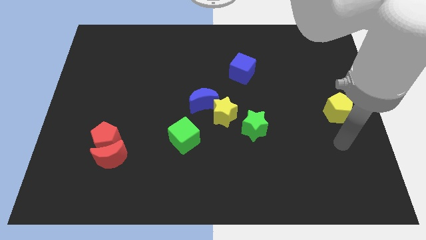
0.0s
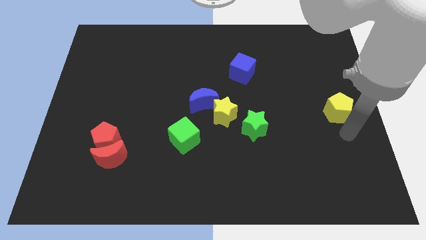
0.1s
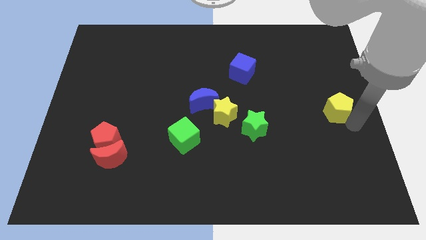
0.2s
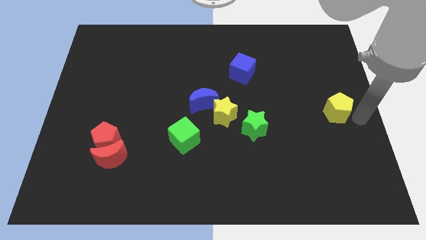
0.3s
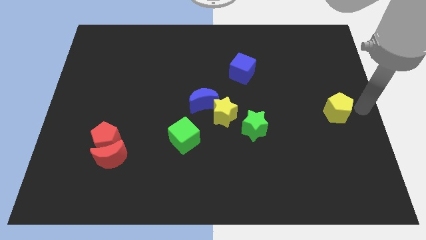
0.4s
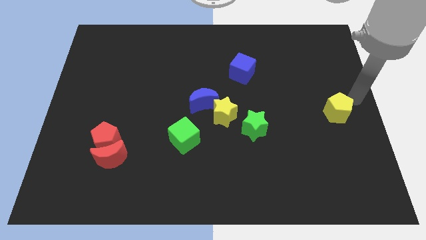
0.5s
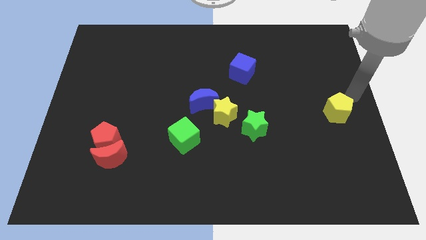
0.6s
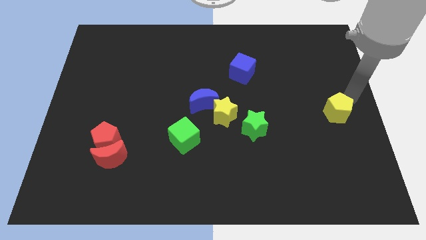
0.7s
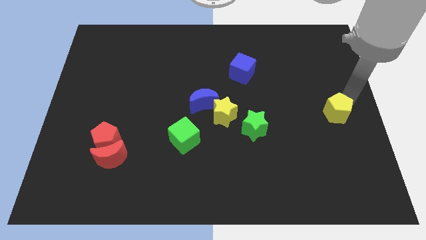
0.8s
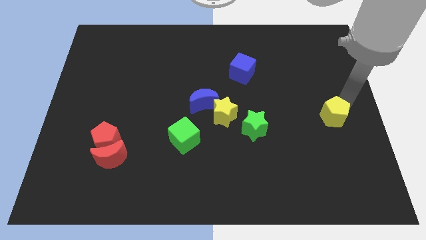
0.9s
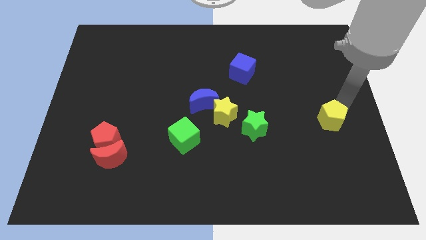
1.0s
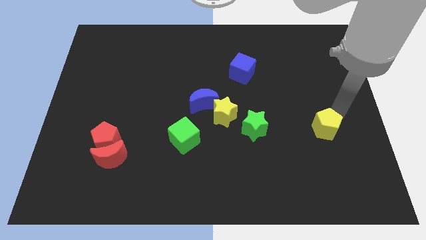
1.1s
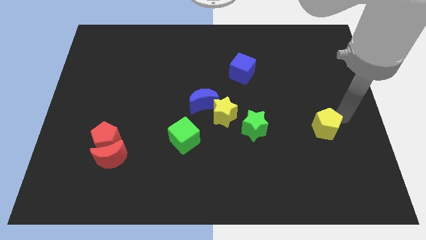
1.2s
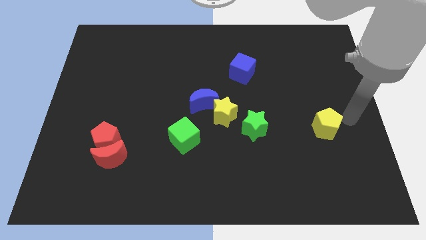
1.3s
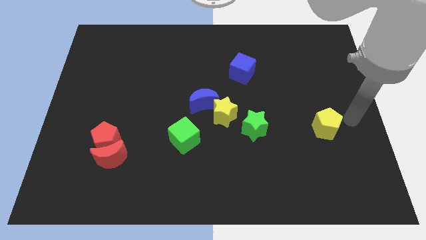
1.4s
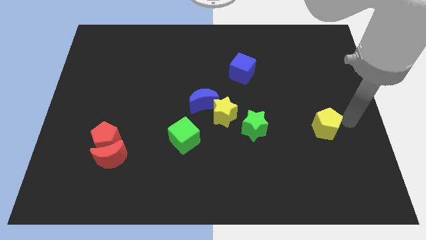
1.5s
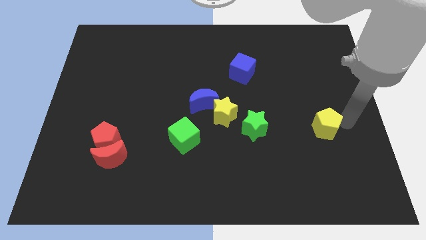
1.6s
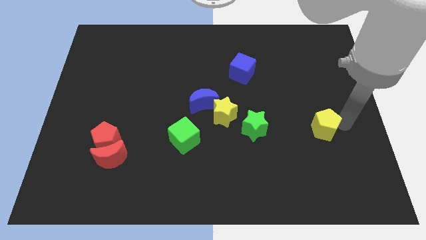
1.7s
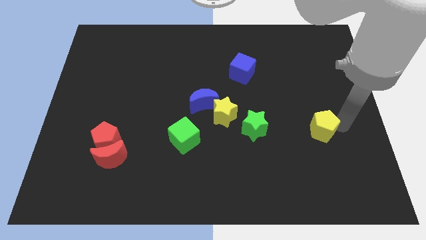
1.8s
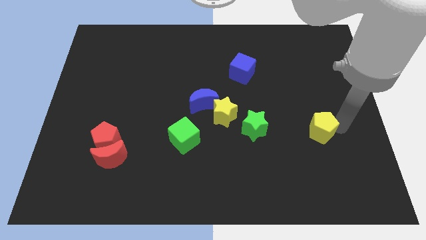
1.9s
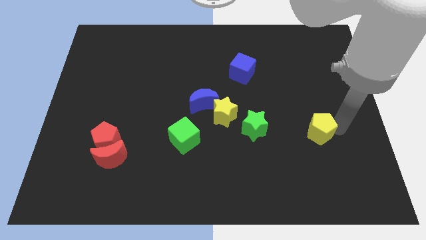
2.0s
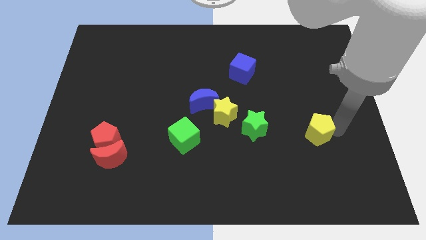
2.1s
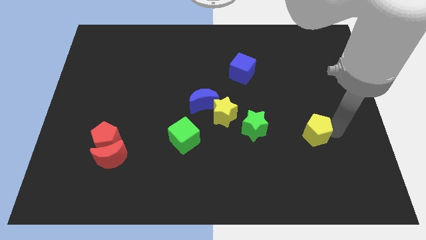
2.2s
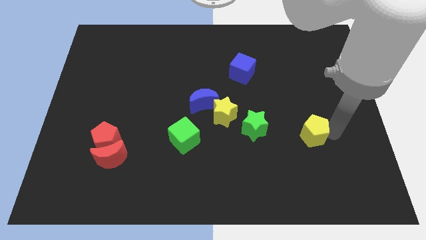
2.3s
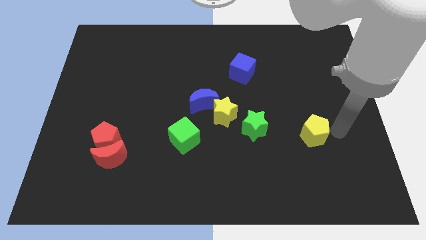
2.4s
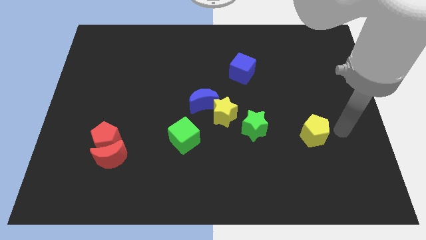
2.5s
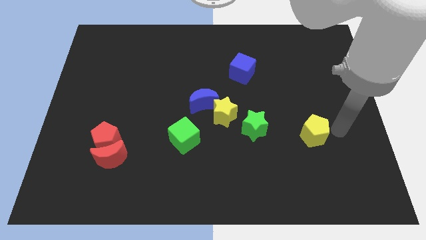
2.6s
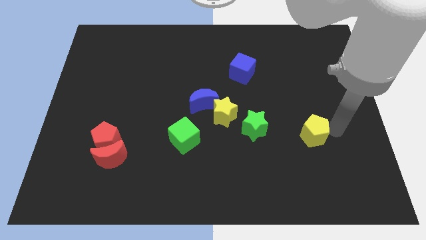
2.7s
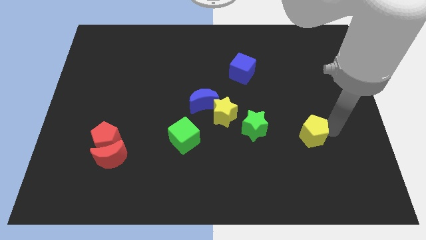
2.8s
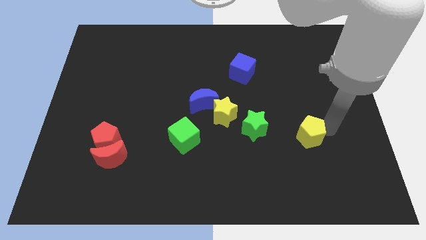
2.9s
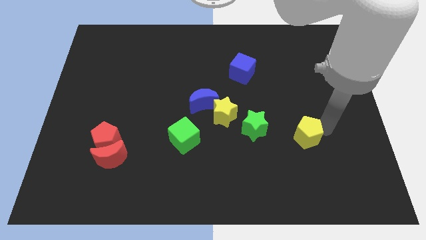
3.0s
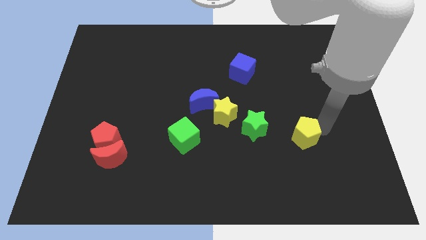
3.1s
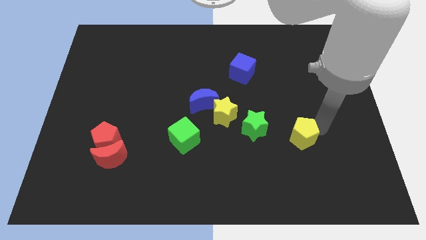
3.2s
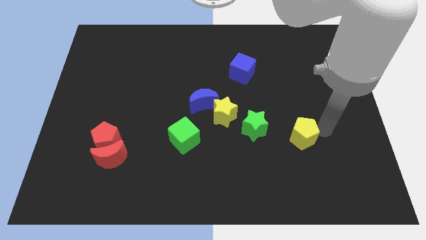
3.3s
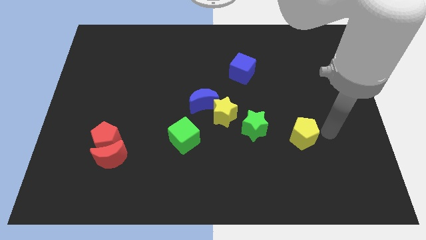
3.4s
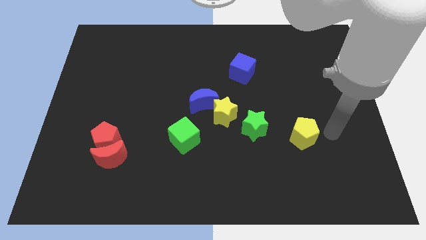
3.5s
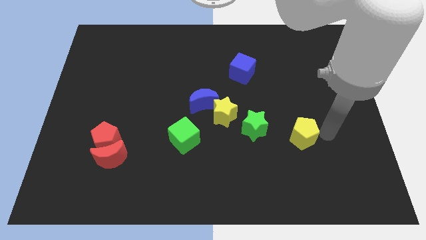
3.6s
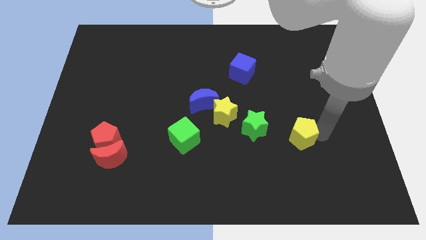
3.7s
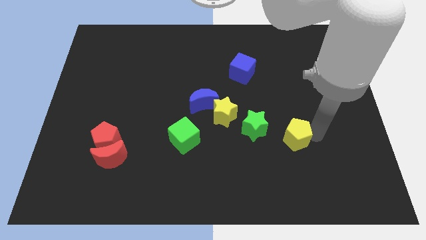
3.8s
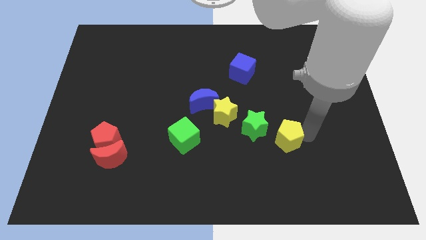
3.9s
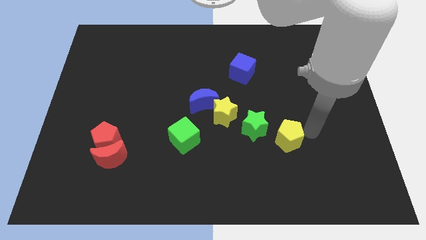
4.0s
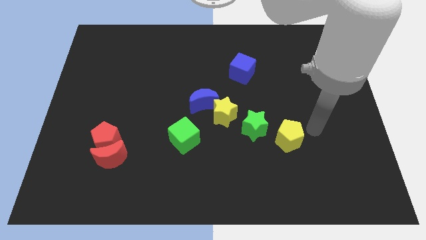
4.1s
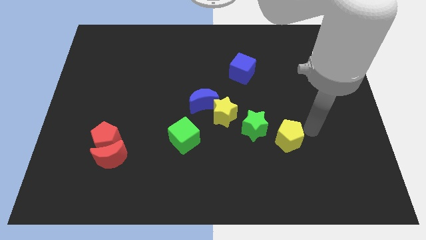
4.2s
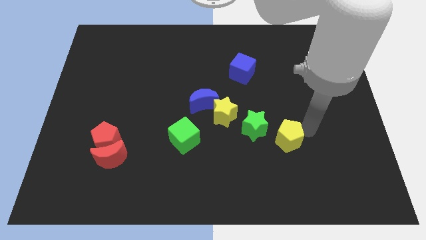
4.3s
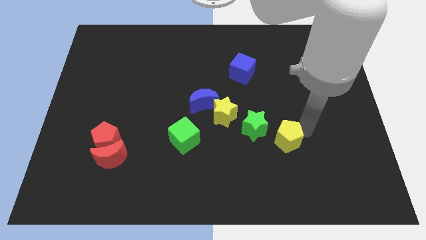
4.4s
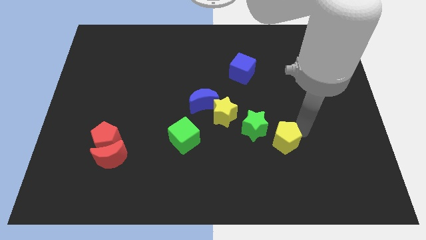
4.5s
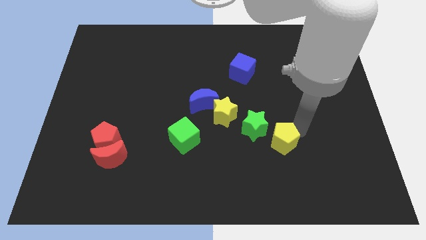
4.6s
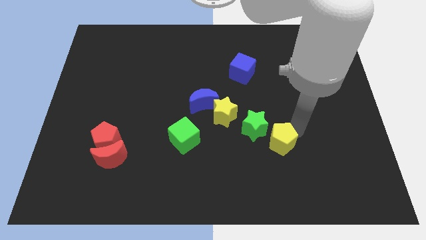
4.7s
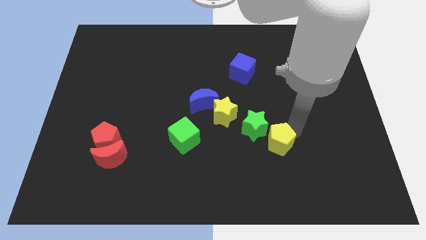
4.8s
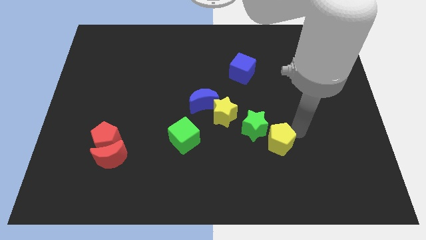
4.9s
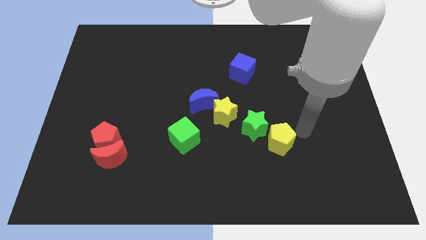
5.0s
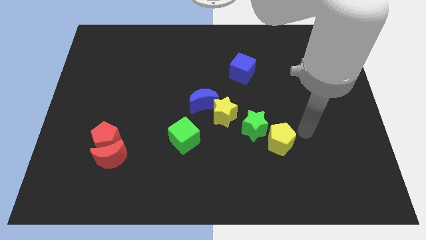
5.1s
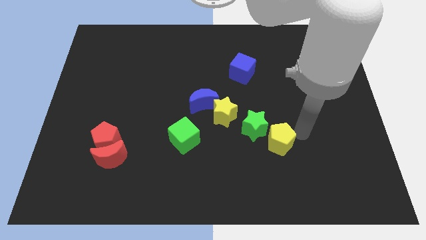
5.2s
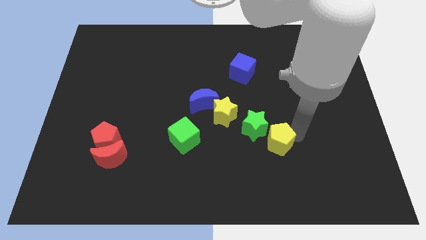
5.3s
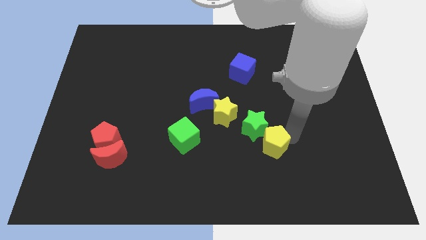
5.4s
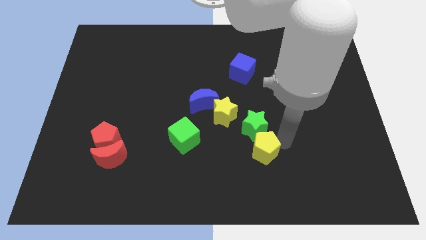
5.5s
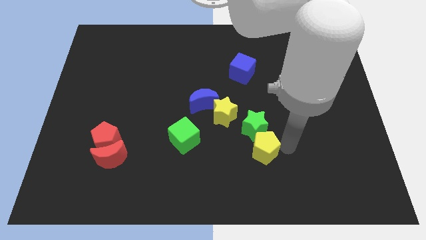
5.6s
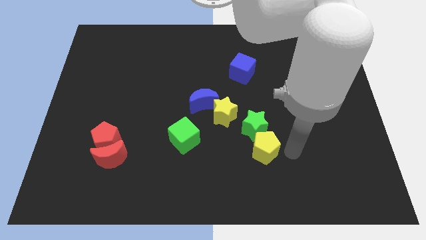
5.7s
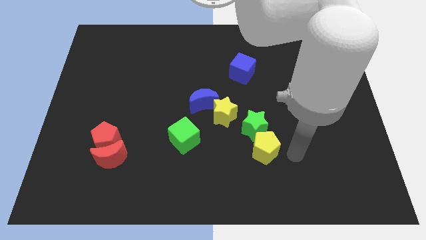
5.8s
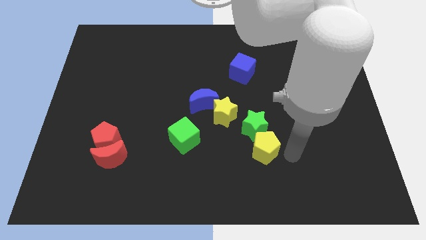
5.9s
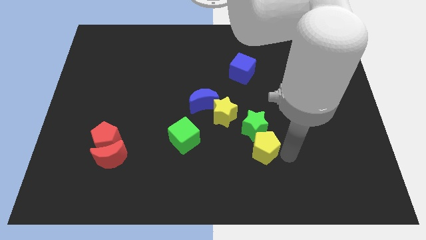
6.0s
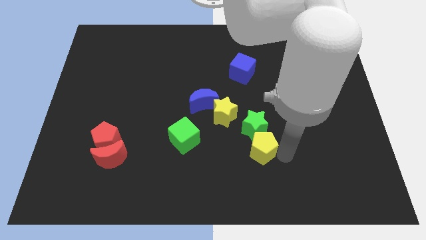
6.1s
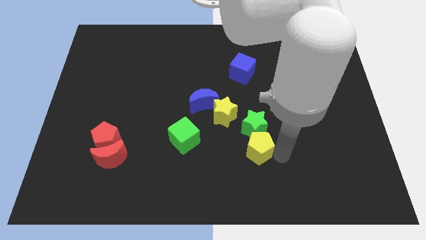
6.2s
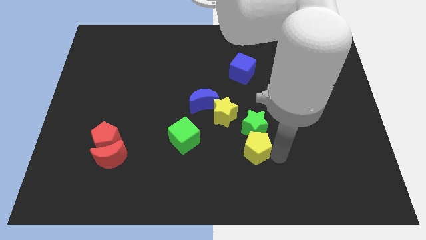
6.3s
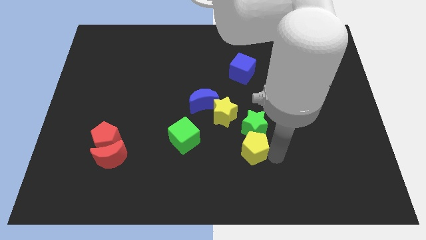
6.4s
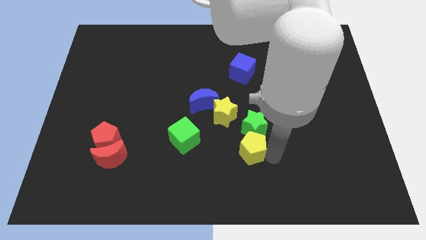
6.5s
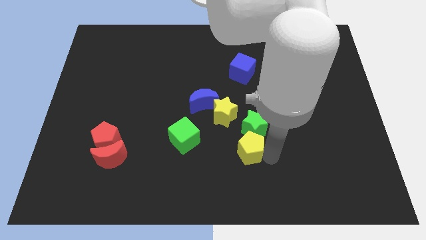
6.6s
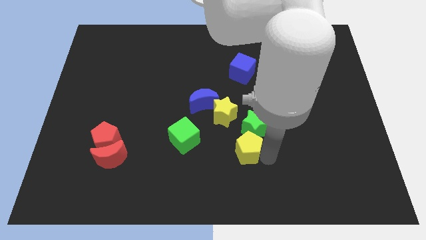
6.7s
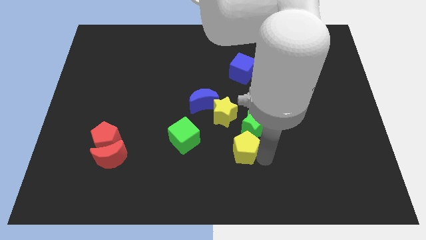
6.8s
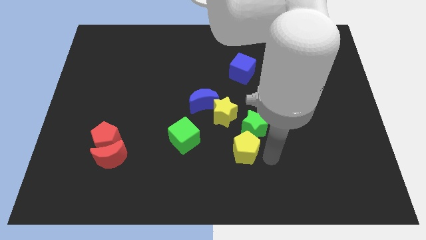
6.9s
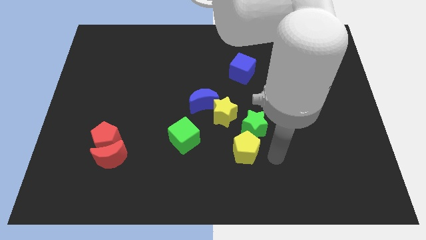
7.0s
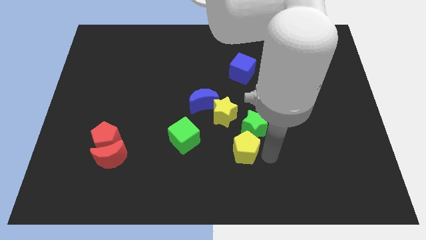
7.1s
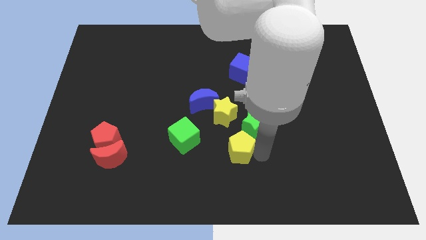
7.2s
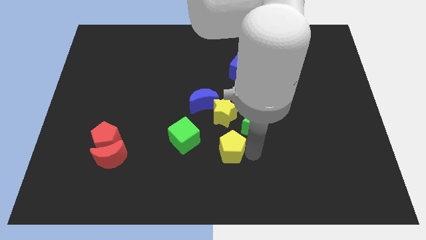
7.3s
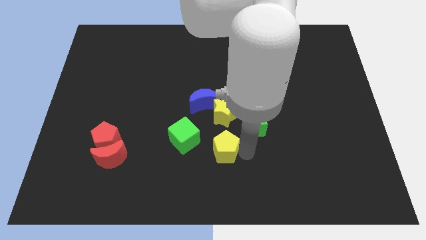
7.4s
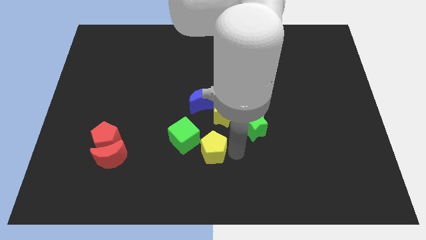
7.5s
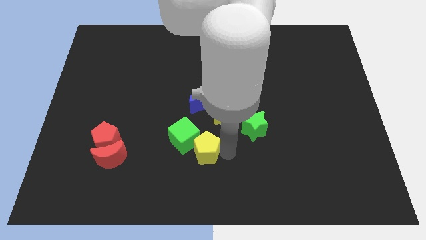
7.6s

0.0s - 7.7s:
push the yellow pentagon next to the green cube
